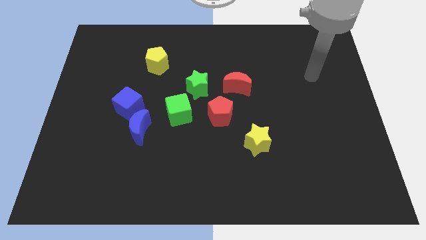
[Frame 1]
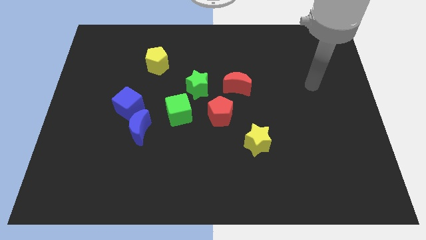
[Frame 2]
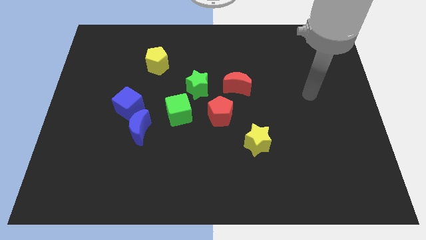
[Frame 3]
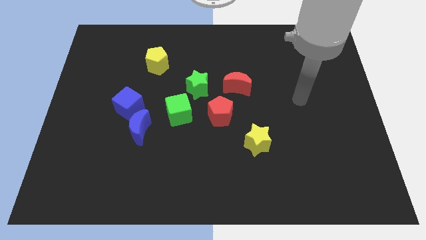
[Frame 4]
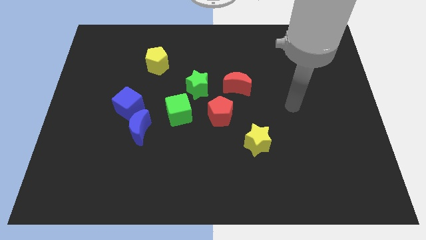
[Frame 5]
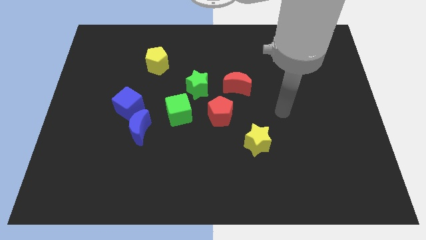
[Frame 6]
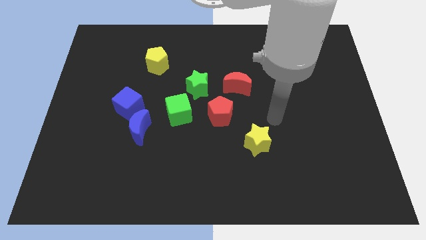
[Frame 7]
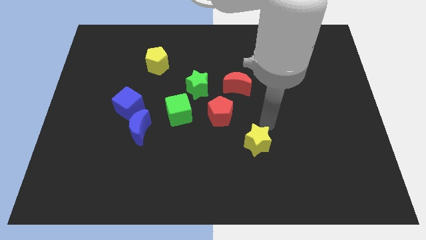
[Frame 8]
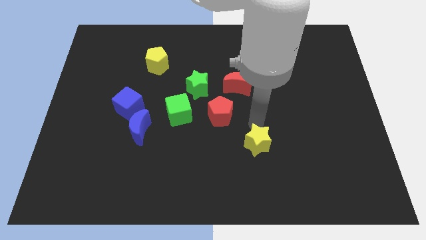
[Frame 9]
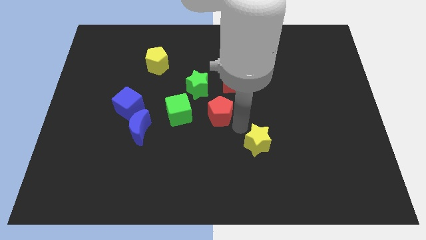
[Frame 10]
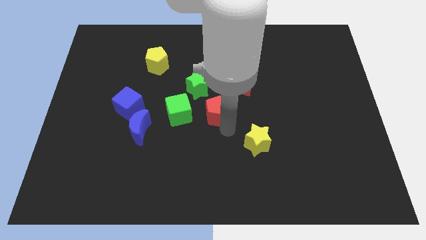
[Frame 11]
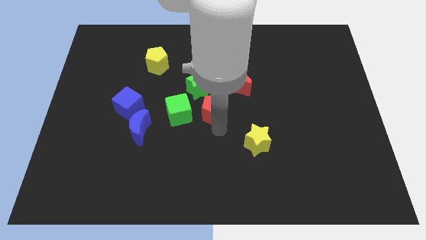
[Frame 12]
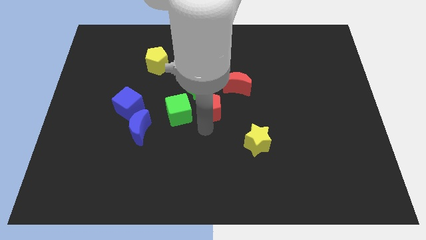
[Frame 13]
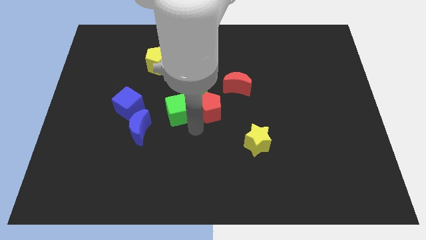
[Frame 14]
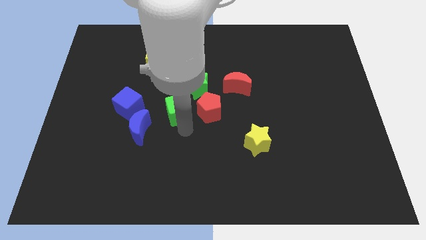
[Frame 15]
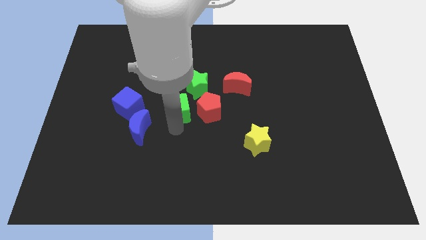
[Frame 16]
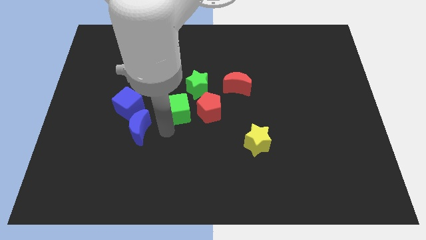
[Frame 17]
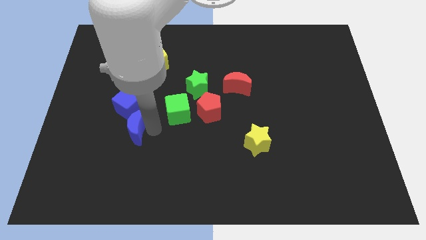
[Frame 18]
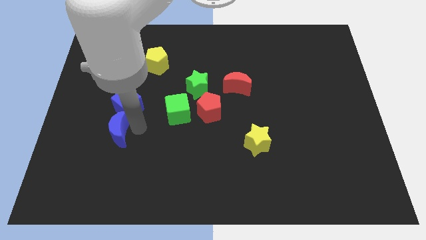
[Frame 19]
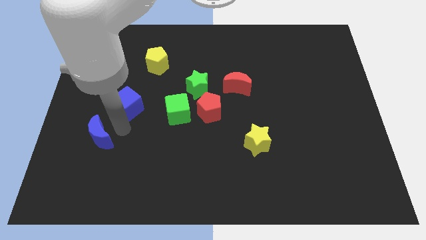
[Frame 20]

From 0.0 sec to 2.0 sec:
separate the blue cube from the blue moon

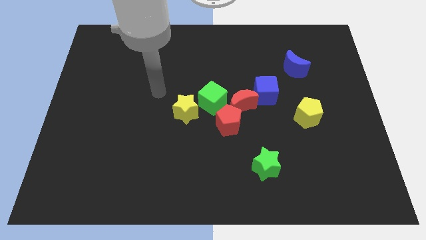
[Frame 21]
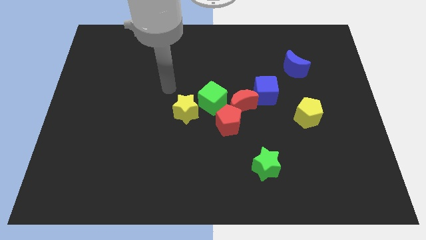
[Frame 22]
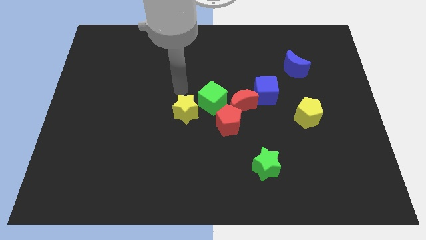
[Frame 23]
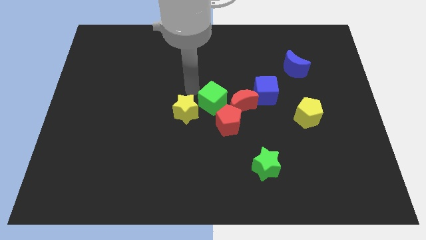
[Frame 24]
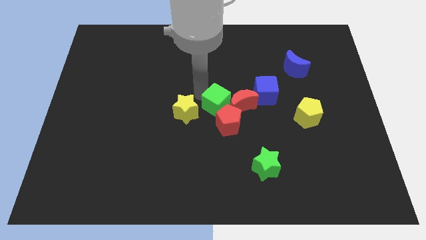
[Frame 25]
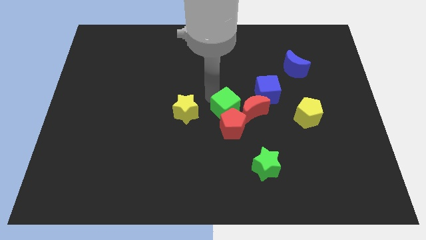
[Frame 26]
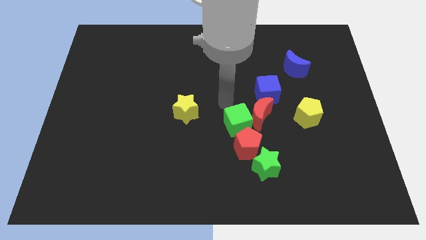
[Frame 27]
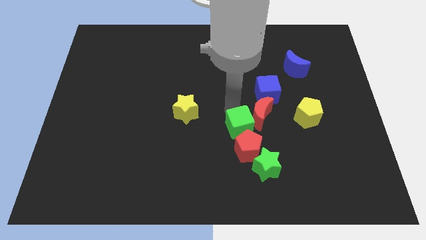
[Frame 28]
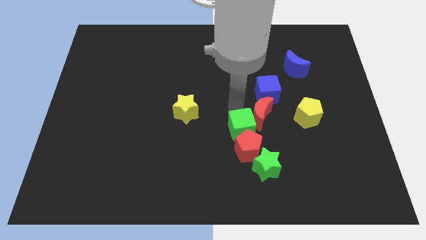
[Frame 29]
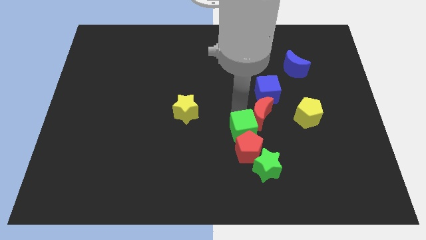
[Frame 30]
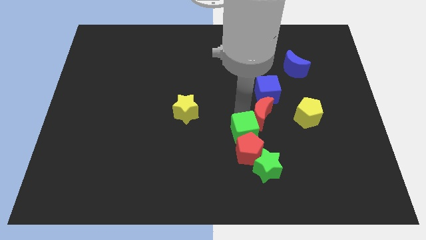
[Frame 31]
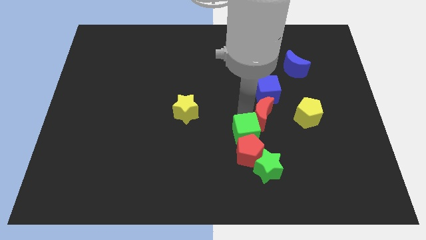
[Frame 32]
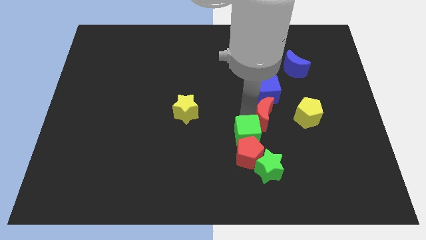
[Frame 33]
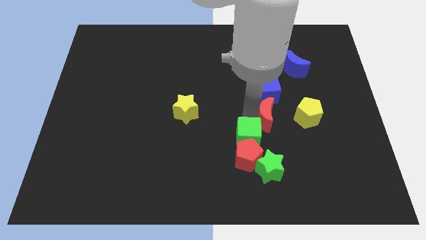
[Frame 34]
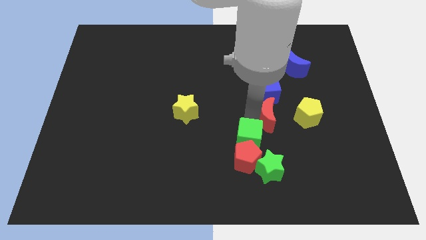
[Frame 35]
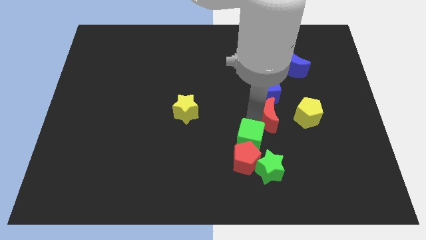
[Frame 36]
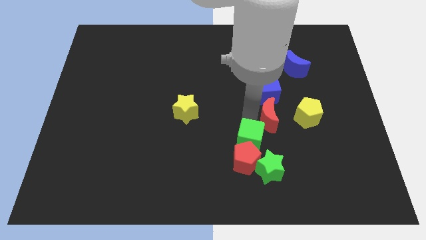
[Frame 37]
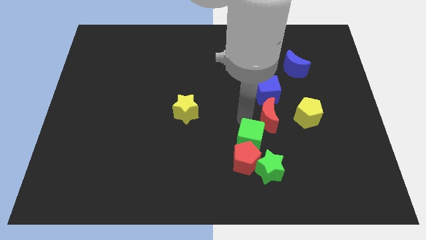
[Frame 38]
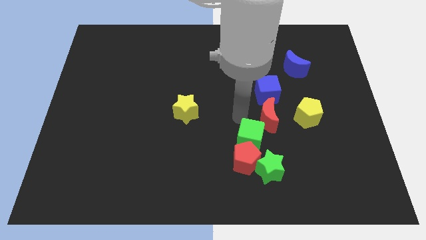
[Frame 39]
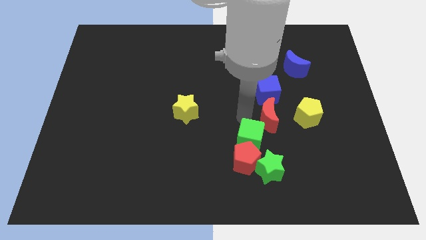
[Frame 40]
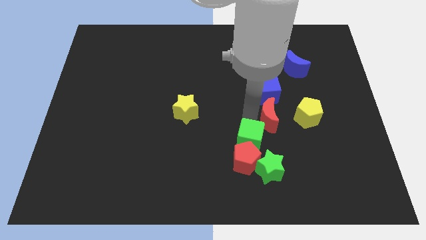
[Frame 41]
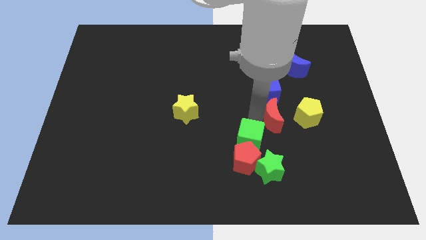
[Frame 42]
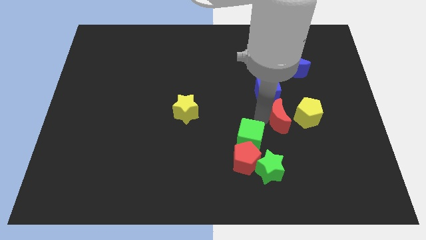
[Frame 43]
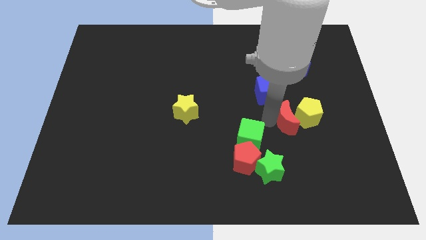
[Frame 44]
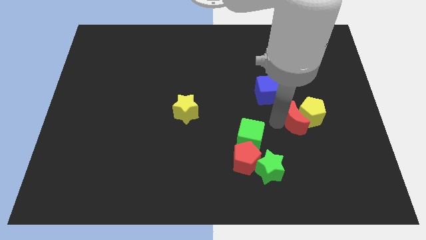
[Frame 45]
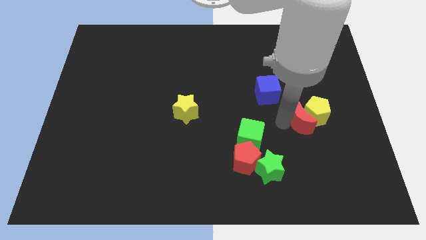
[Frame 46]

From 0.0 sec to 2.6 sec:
separate the red moon from the group of blocks

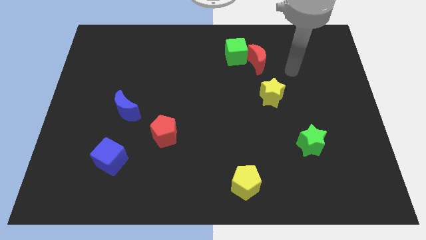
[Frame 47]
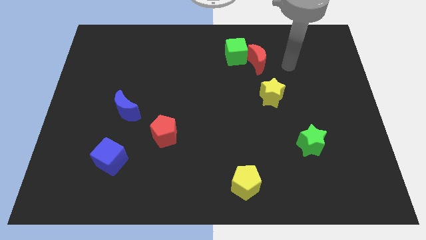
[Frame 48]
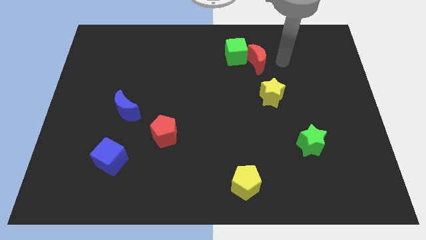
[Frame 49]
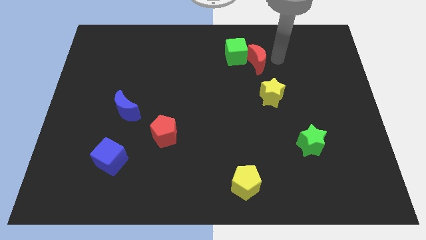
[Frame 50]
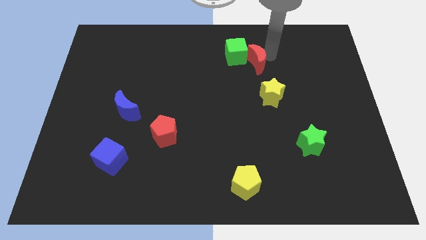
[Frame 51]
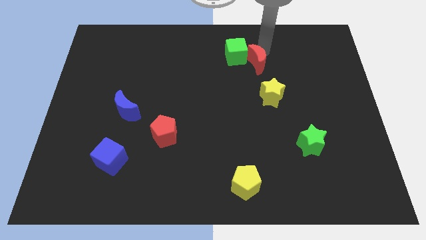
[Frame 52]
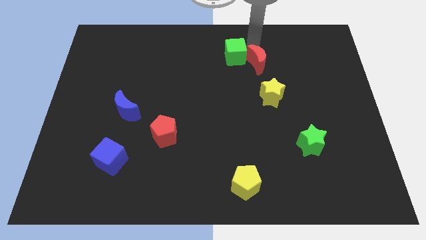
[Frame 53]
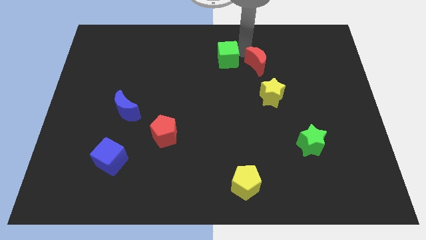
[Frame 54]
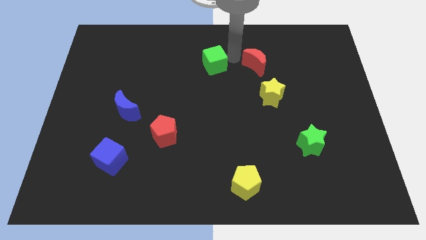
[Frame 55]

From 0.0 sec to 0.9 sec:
pull the red moon apart from the green cube

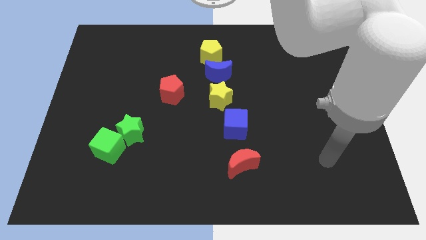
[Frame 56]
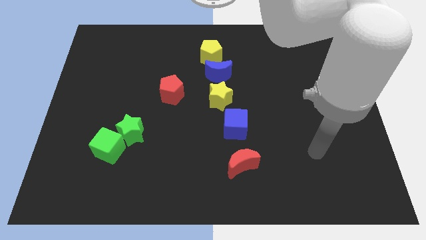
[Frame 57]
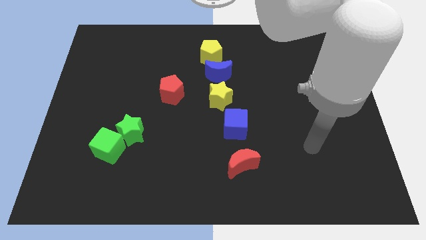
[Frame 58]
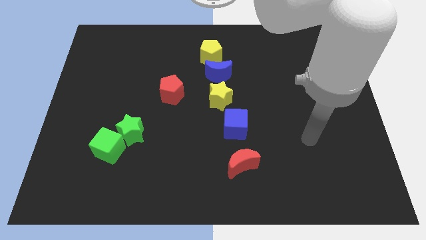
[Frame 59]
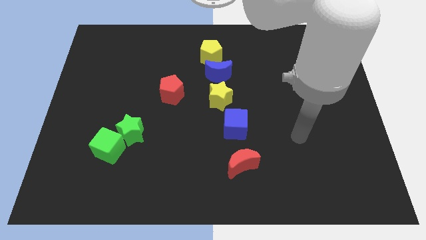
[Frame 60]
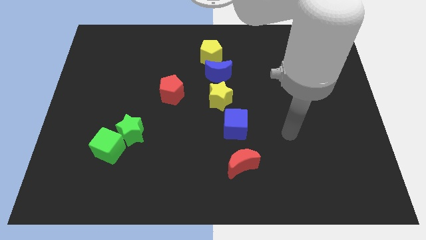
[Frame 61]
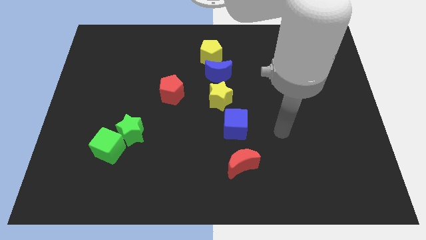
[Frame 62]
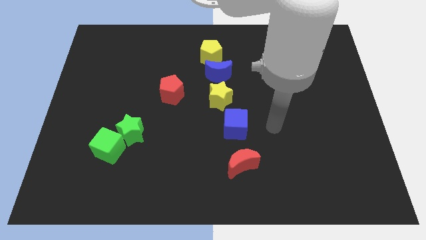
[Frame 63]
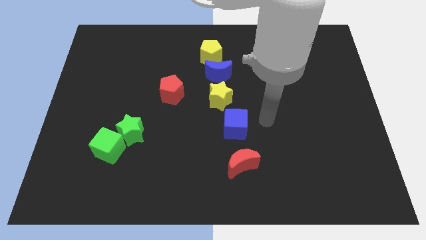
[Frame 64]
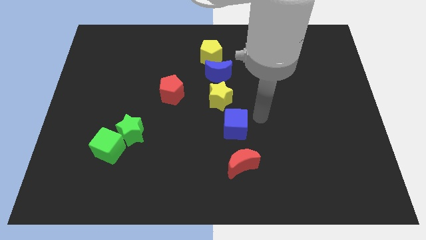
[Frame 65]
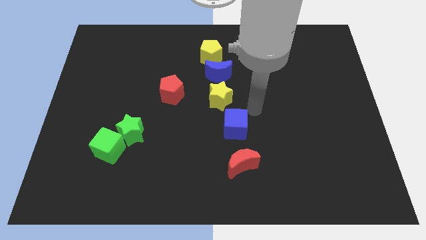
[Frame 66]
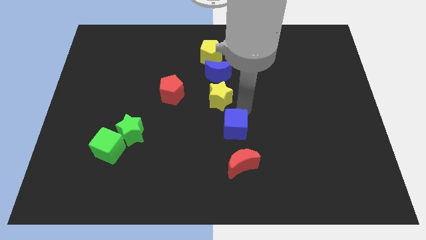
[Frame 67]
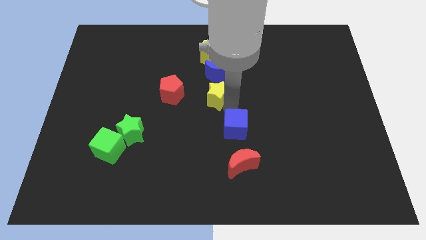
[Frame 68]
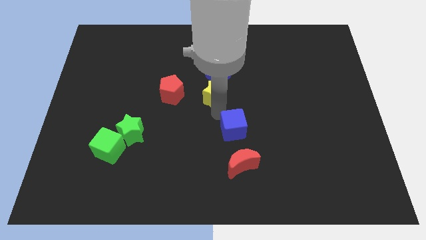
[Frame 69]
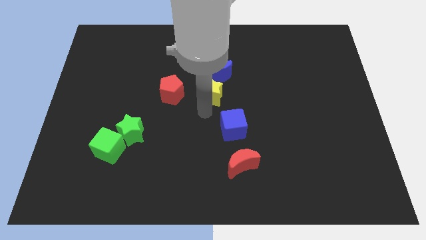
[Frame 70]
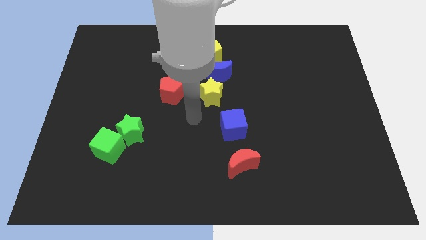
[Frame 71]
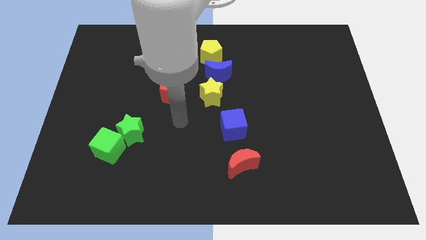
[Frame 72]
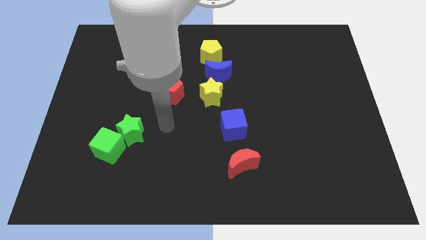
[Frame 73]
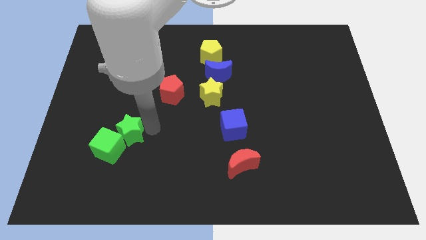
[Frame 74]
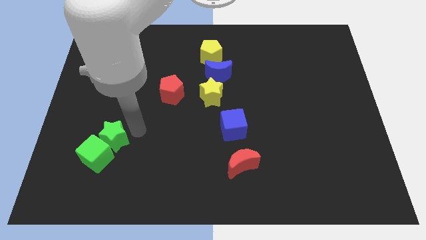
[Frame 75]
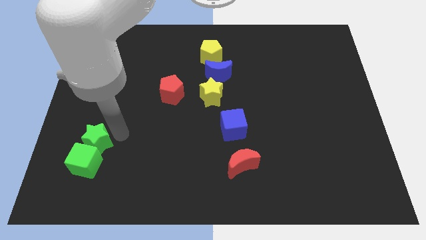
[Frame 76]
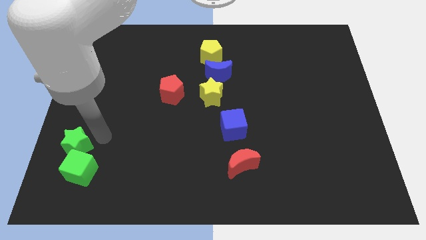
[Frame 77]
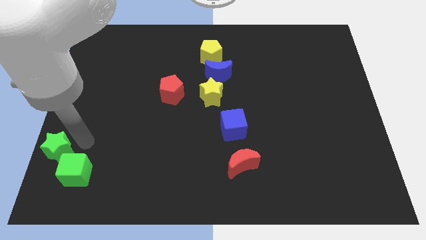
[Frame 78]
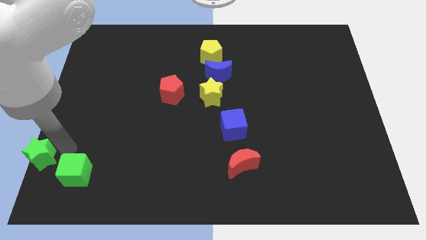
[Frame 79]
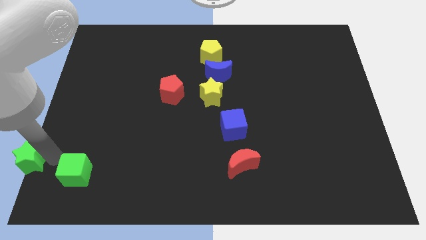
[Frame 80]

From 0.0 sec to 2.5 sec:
move the green cube away from the green star

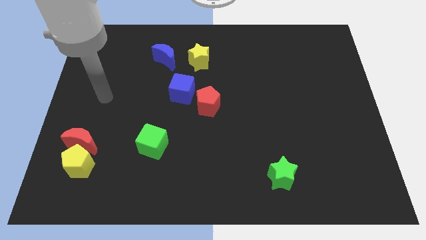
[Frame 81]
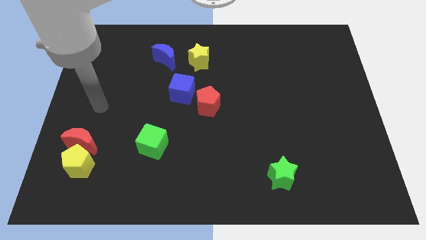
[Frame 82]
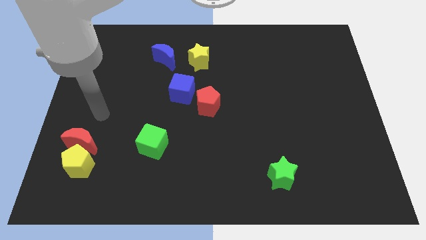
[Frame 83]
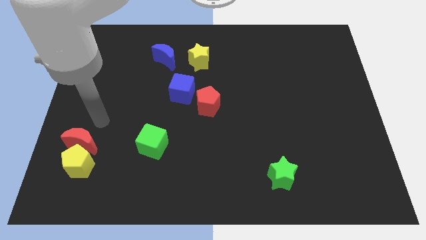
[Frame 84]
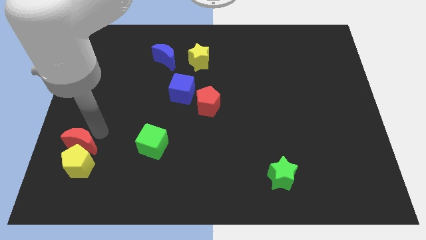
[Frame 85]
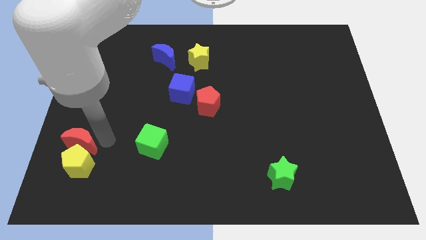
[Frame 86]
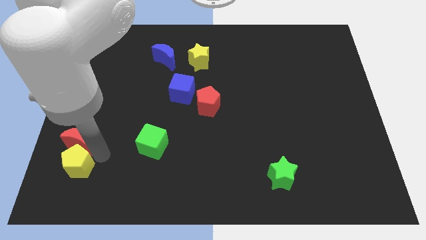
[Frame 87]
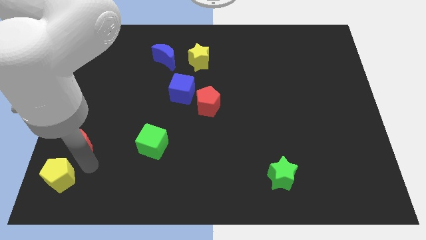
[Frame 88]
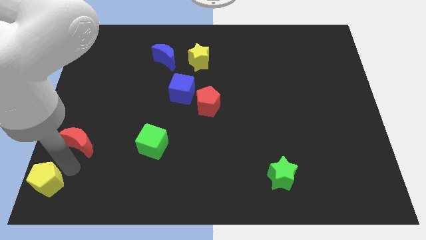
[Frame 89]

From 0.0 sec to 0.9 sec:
move the red moon away from the yellow pentagon

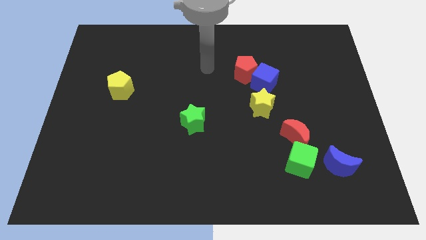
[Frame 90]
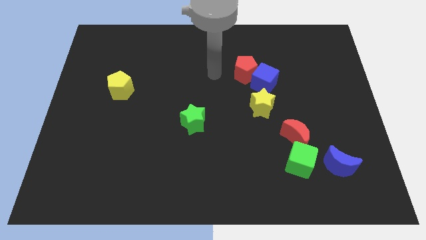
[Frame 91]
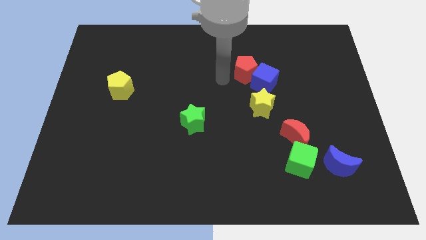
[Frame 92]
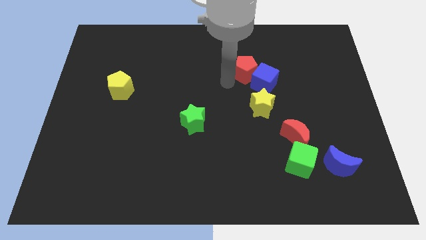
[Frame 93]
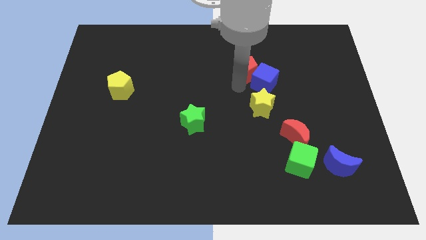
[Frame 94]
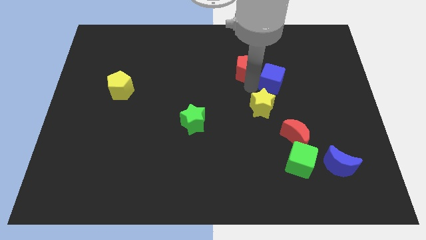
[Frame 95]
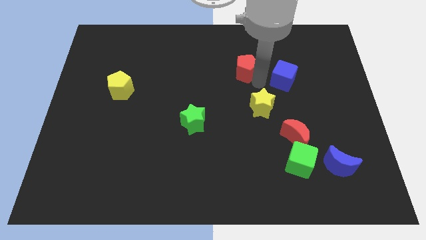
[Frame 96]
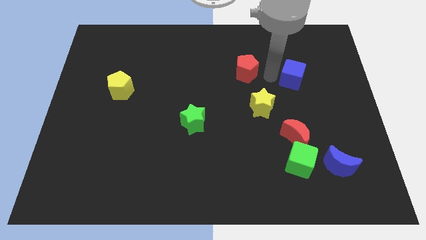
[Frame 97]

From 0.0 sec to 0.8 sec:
separate the red pentagon from the blue cube
